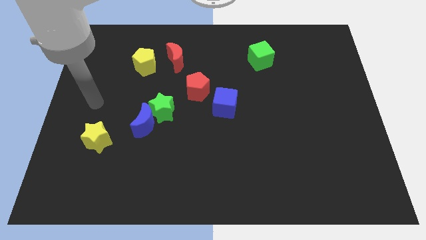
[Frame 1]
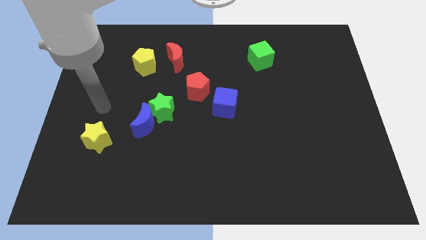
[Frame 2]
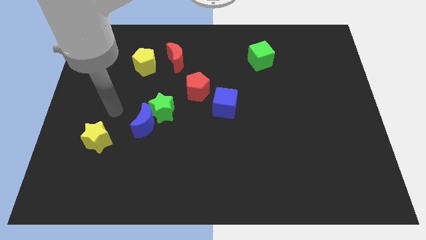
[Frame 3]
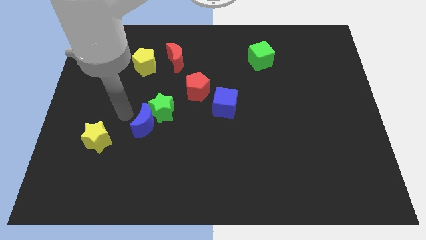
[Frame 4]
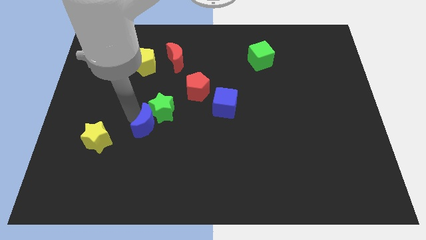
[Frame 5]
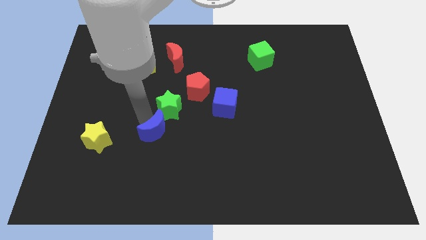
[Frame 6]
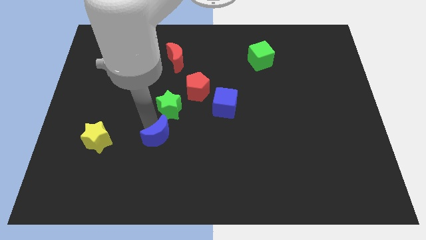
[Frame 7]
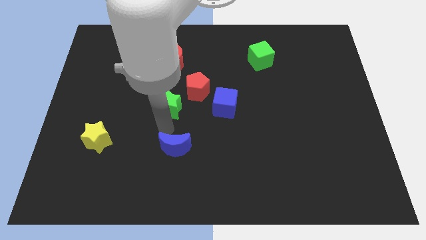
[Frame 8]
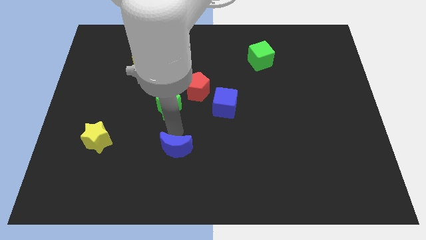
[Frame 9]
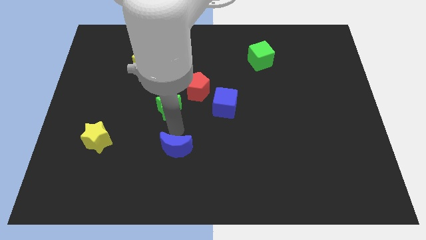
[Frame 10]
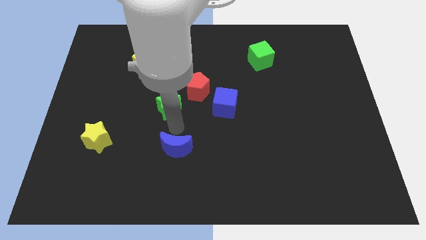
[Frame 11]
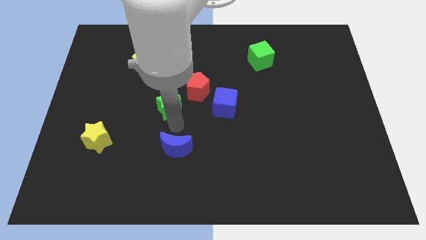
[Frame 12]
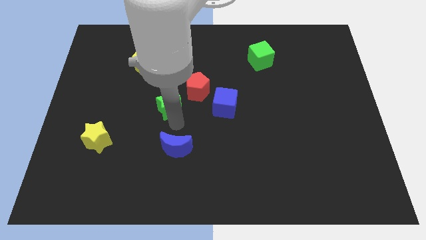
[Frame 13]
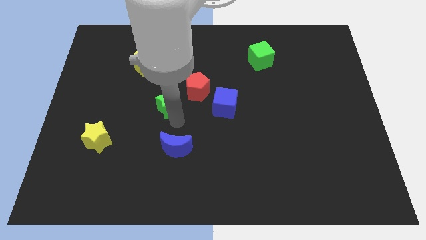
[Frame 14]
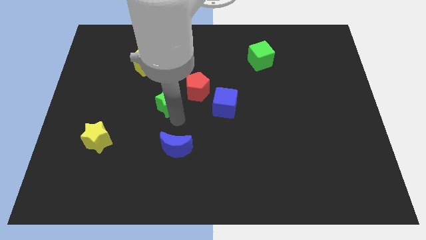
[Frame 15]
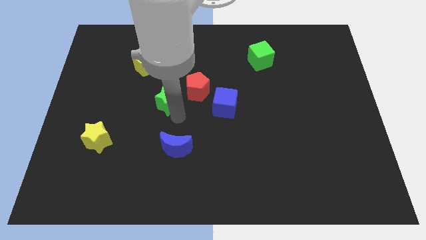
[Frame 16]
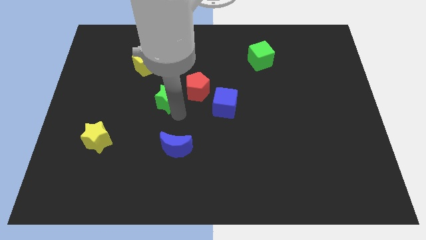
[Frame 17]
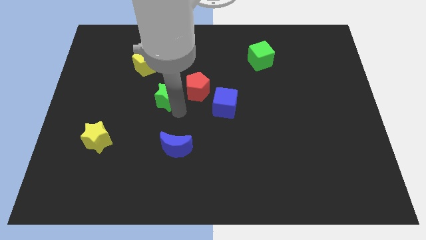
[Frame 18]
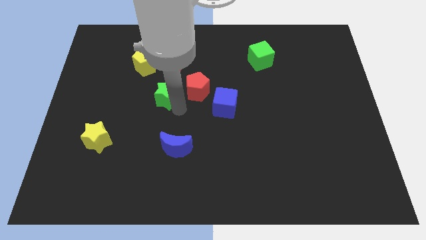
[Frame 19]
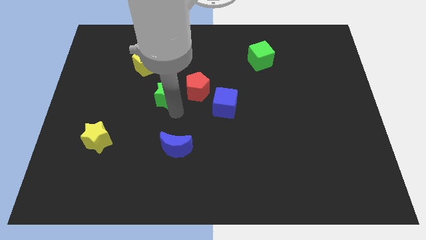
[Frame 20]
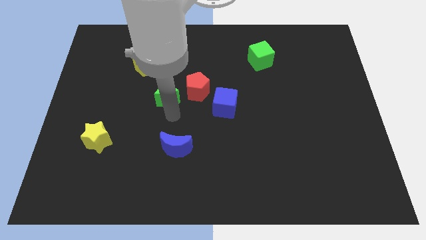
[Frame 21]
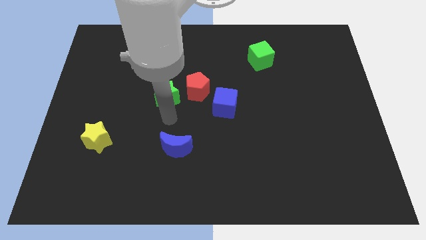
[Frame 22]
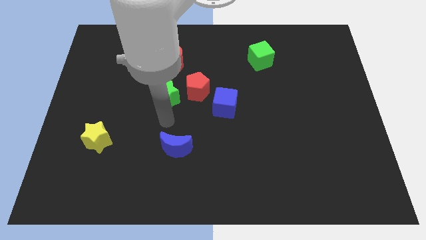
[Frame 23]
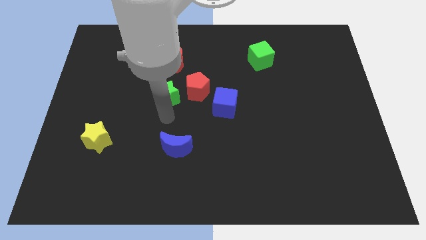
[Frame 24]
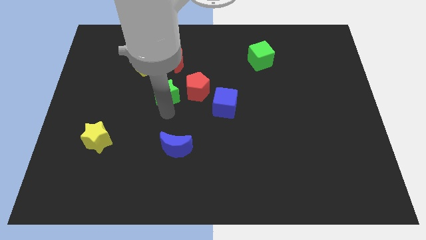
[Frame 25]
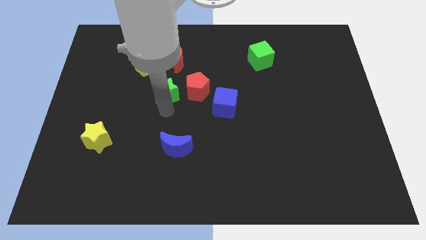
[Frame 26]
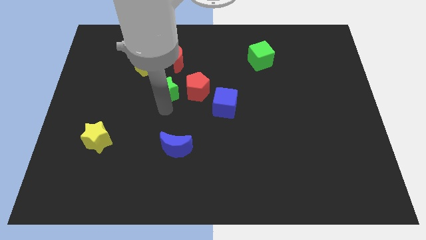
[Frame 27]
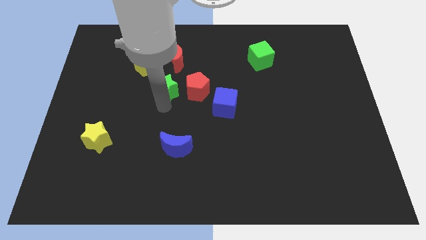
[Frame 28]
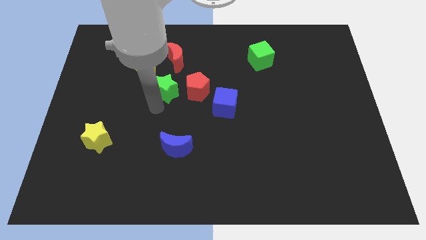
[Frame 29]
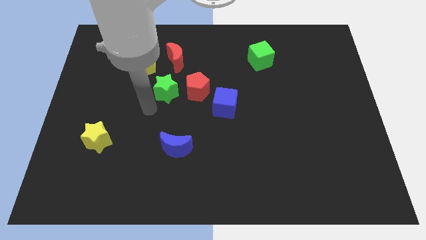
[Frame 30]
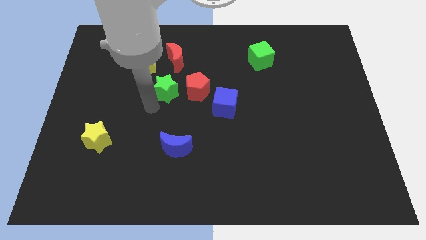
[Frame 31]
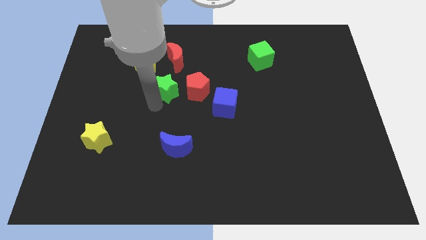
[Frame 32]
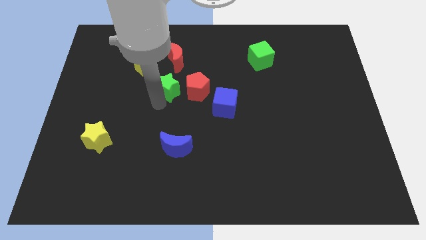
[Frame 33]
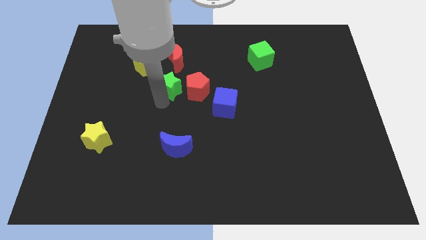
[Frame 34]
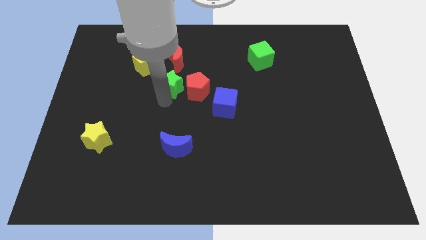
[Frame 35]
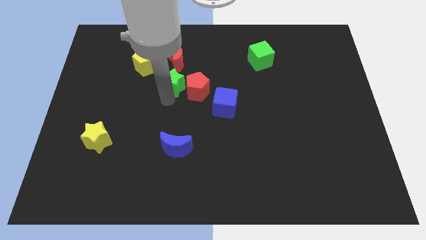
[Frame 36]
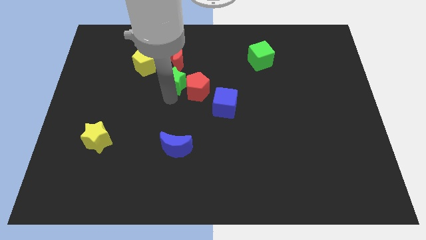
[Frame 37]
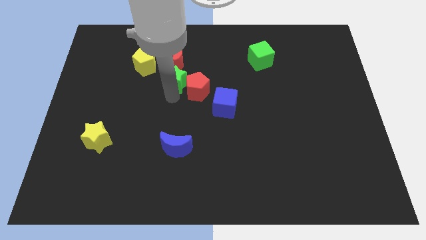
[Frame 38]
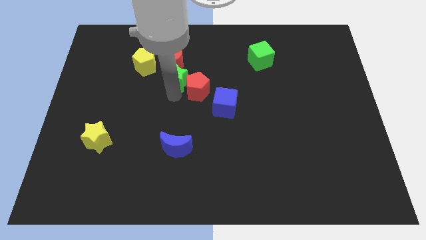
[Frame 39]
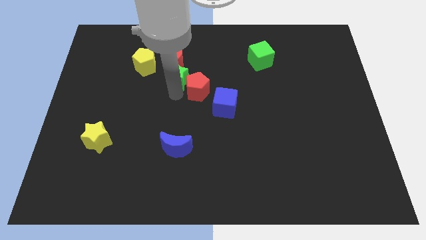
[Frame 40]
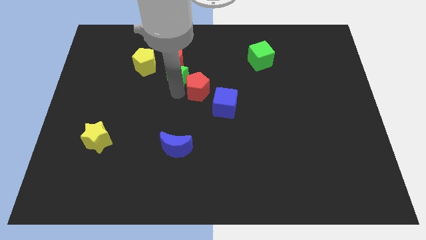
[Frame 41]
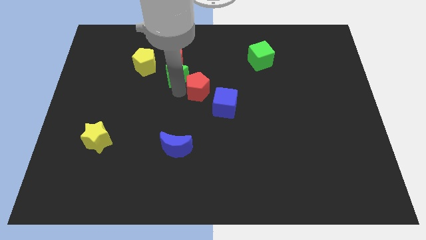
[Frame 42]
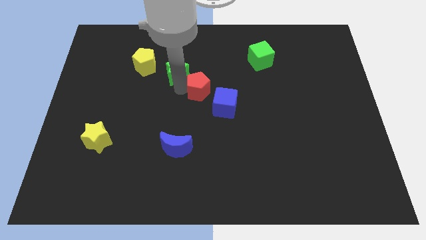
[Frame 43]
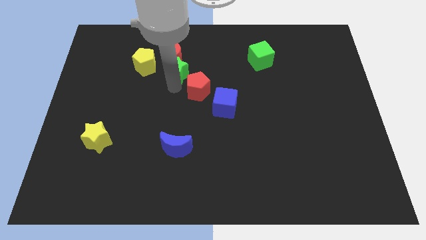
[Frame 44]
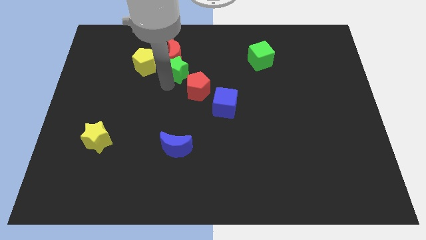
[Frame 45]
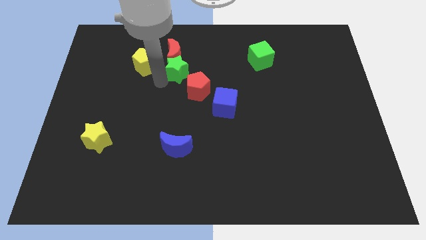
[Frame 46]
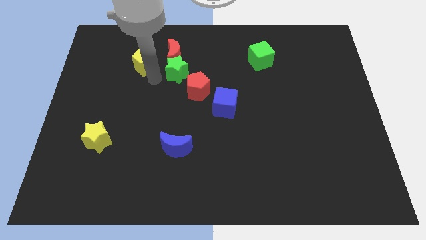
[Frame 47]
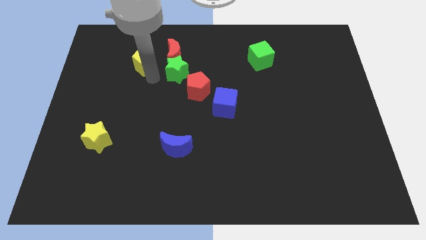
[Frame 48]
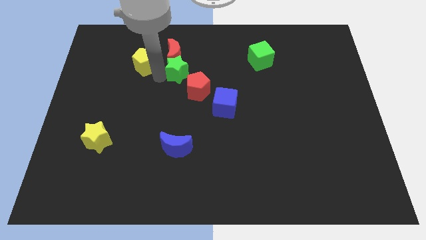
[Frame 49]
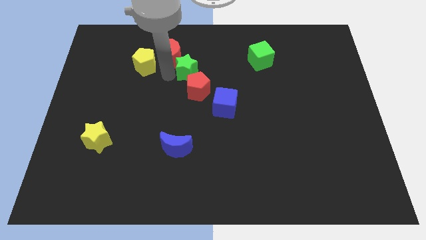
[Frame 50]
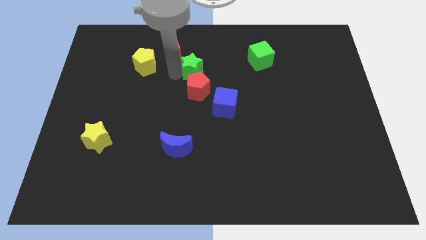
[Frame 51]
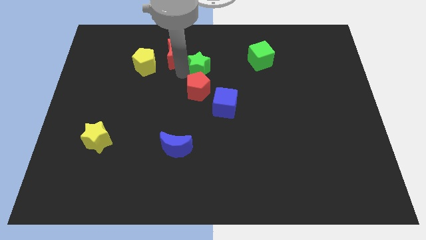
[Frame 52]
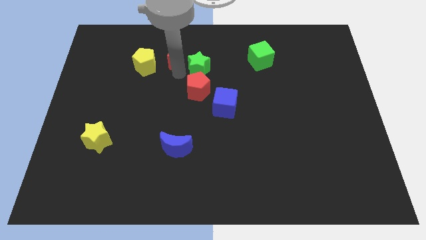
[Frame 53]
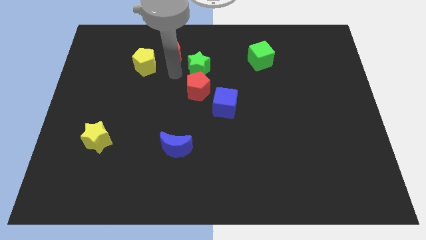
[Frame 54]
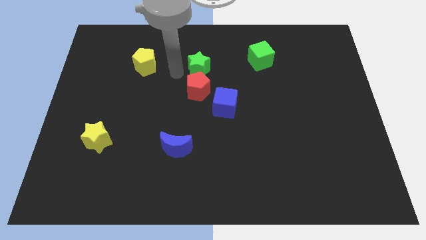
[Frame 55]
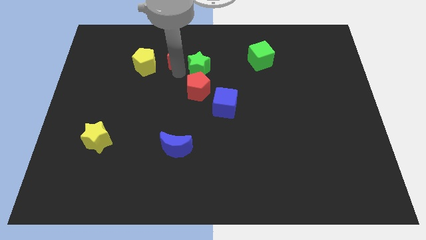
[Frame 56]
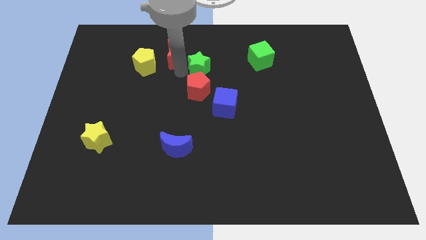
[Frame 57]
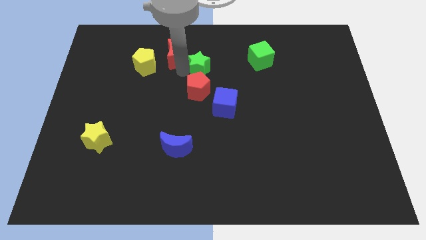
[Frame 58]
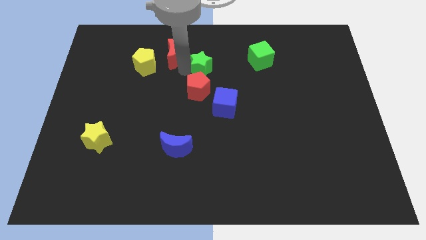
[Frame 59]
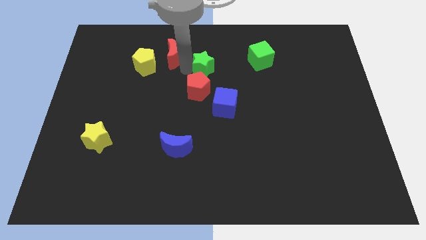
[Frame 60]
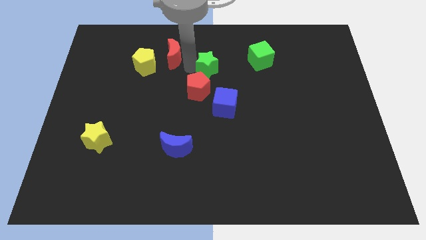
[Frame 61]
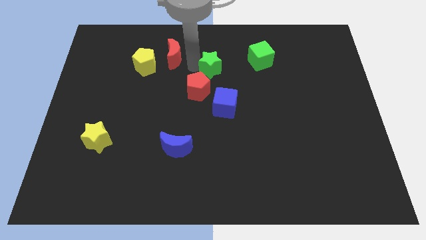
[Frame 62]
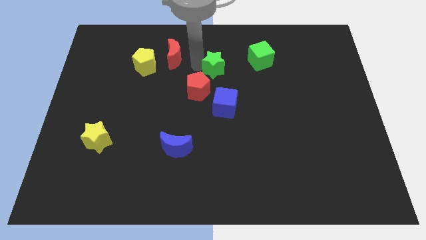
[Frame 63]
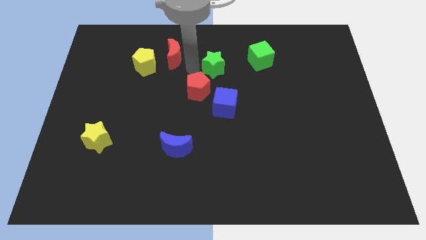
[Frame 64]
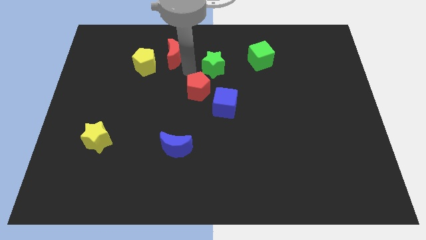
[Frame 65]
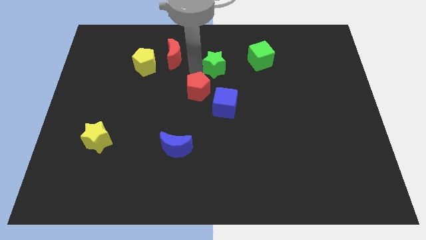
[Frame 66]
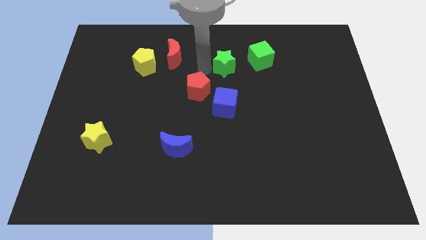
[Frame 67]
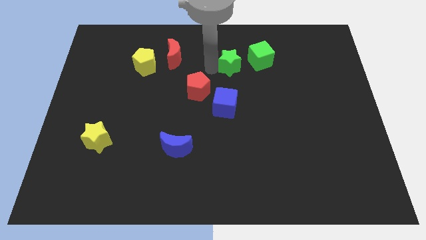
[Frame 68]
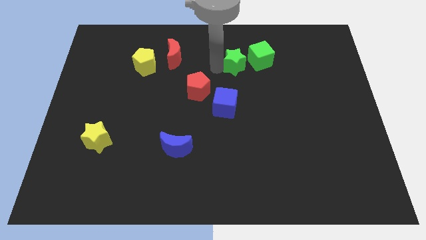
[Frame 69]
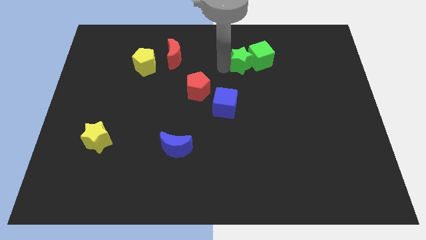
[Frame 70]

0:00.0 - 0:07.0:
push the green star next to the green cube
